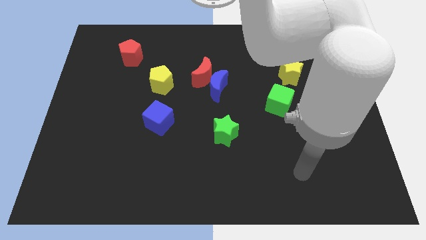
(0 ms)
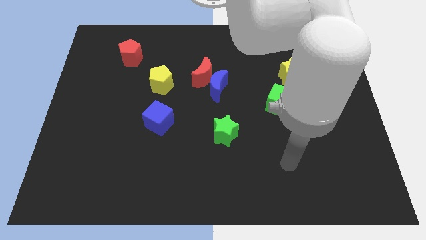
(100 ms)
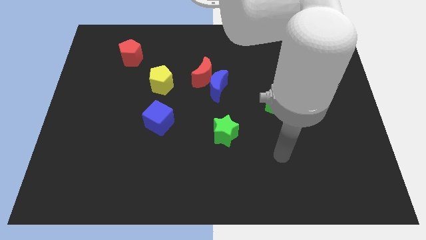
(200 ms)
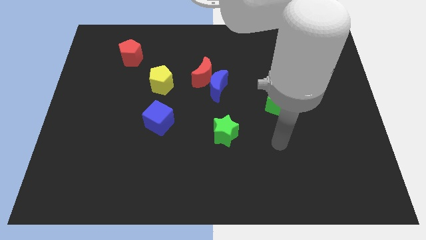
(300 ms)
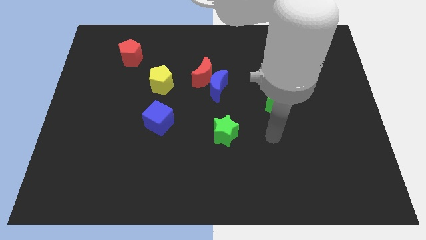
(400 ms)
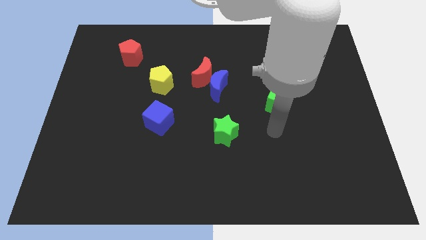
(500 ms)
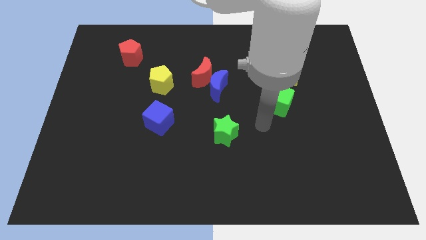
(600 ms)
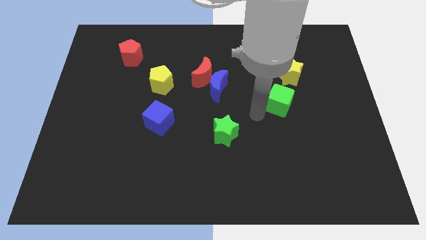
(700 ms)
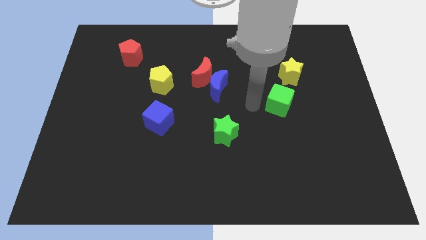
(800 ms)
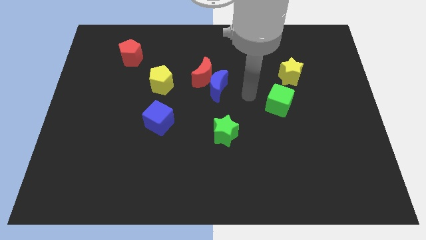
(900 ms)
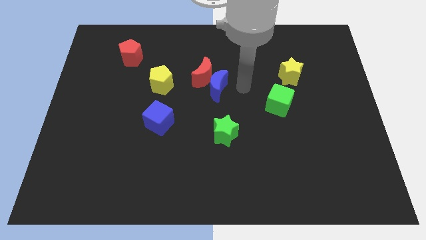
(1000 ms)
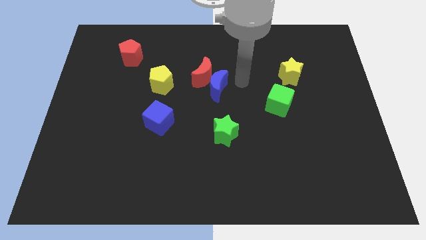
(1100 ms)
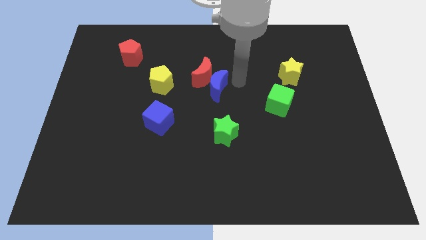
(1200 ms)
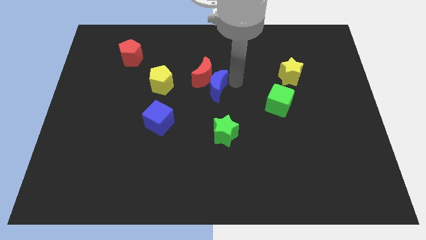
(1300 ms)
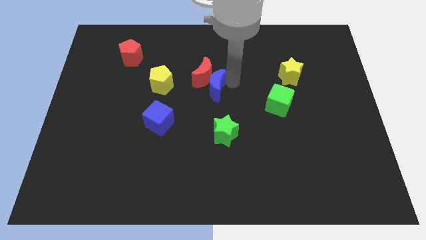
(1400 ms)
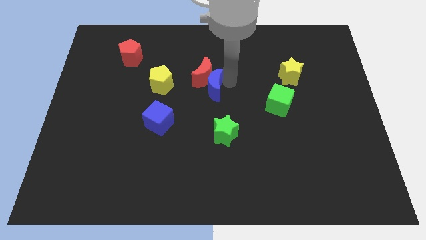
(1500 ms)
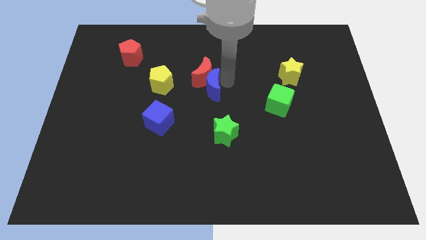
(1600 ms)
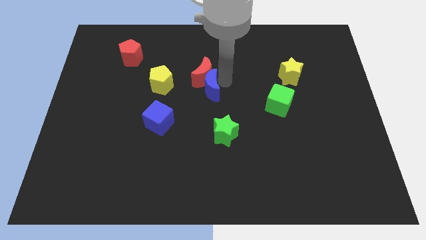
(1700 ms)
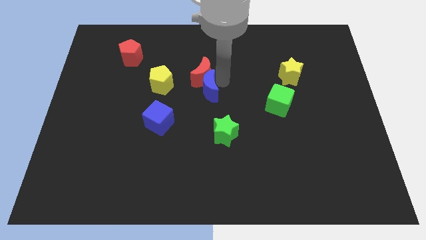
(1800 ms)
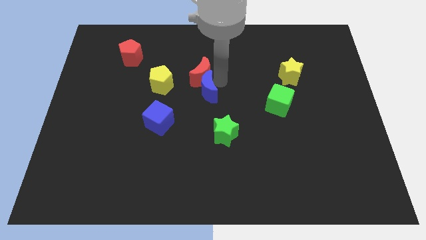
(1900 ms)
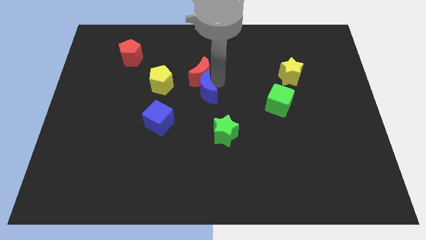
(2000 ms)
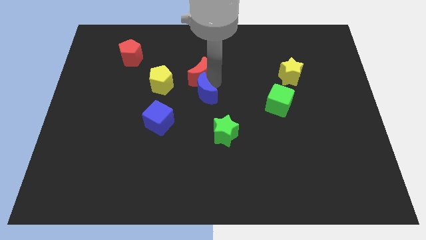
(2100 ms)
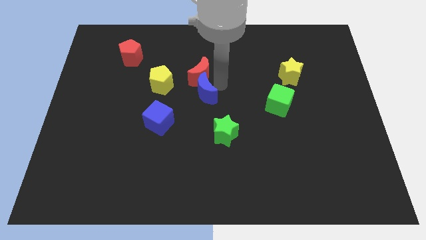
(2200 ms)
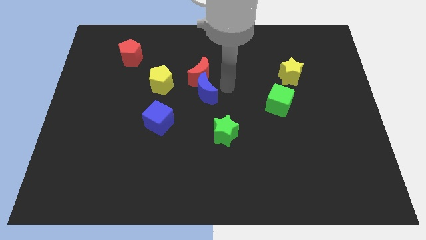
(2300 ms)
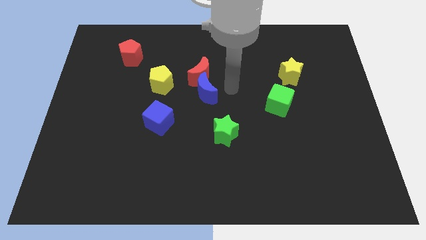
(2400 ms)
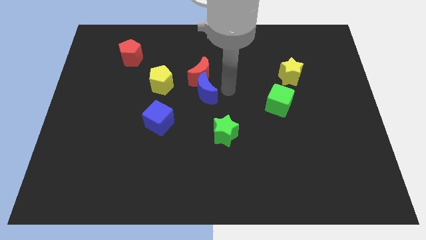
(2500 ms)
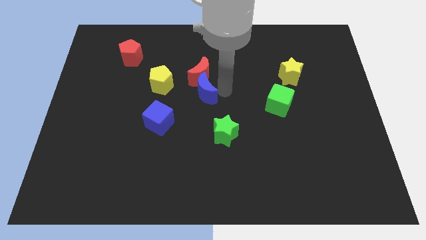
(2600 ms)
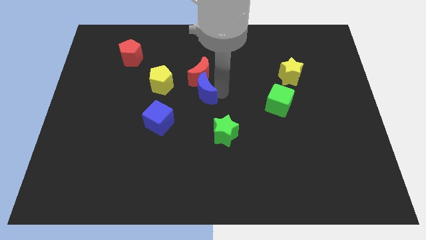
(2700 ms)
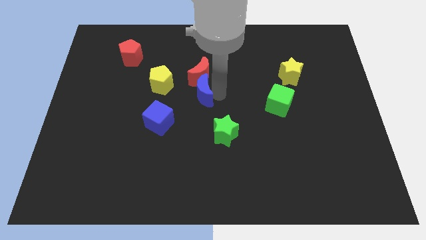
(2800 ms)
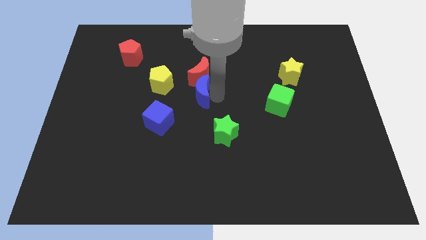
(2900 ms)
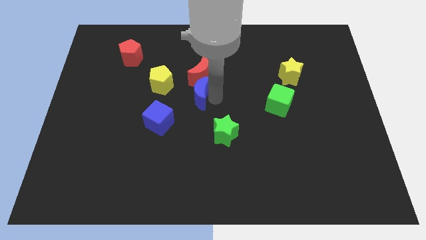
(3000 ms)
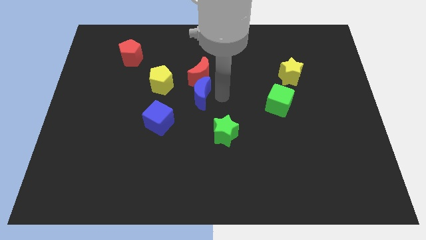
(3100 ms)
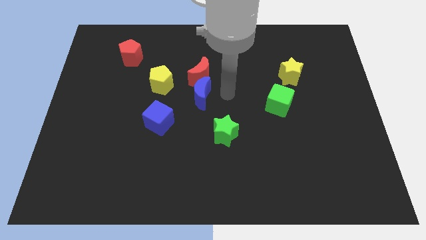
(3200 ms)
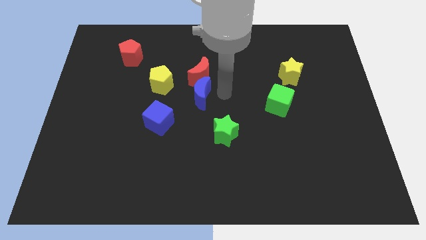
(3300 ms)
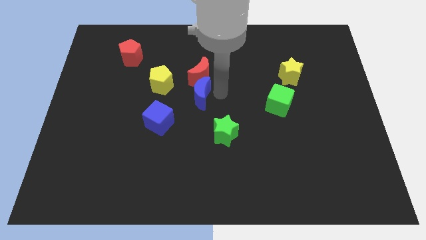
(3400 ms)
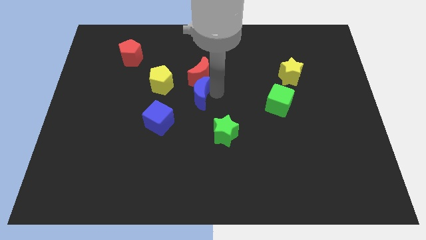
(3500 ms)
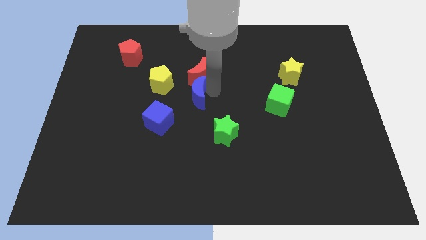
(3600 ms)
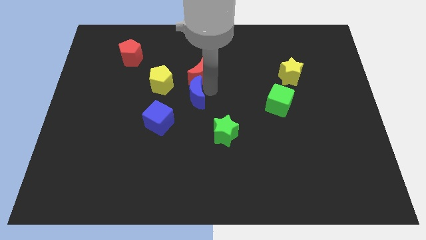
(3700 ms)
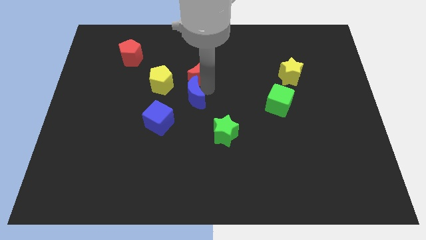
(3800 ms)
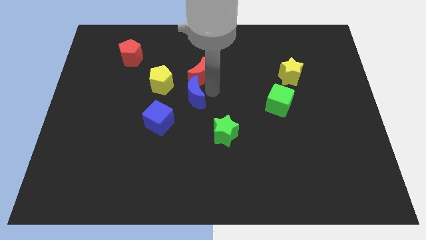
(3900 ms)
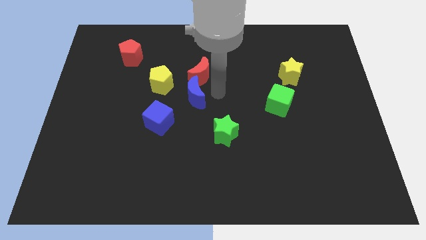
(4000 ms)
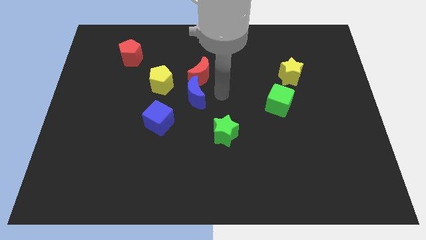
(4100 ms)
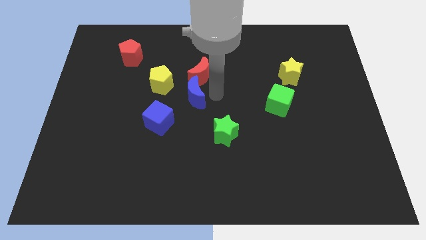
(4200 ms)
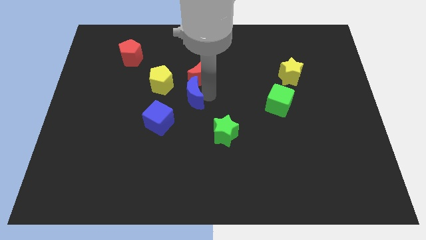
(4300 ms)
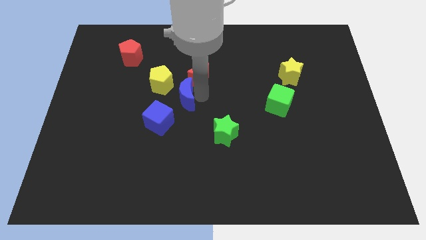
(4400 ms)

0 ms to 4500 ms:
slide the blue moon somewhat left

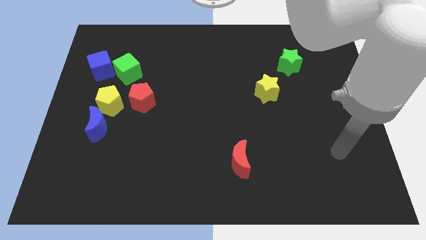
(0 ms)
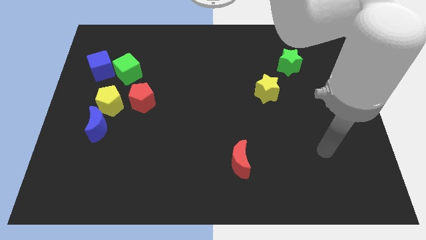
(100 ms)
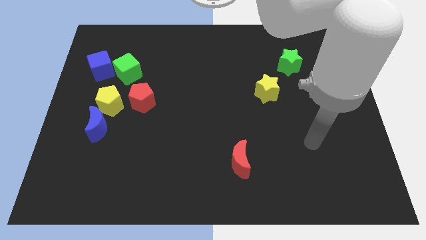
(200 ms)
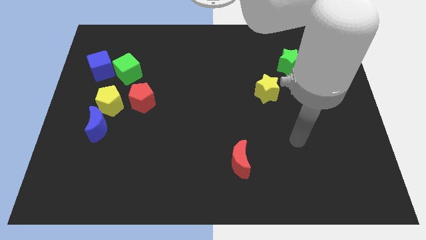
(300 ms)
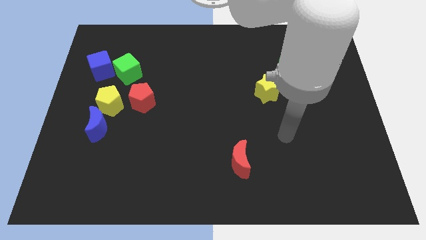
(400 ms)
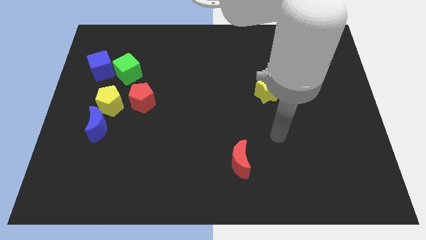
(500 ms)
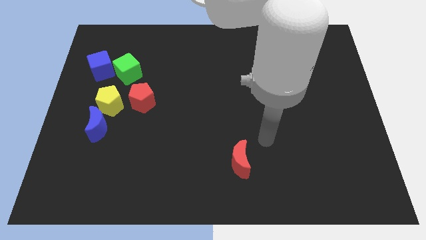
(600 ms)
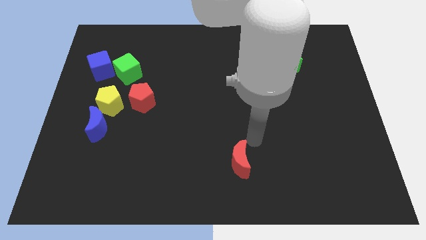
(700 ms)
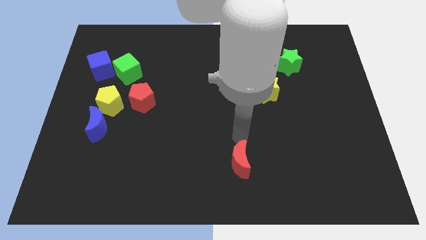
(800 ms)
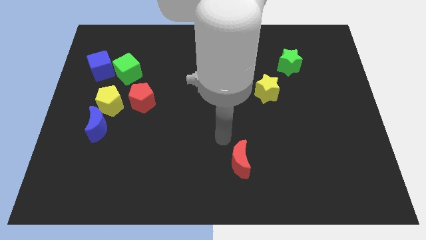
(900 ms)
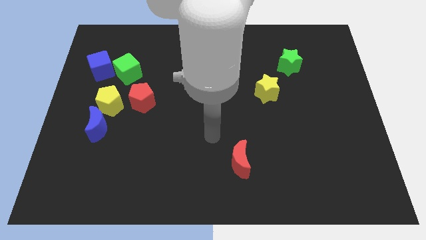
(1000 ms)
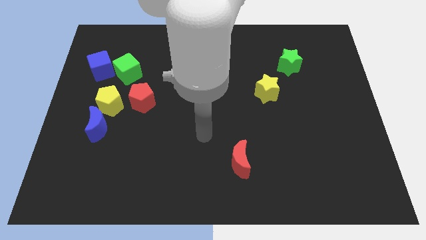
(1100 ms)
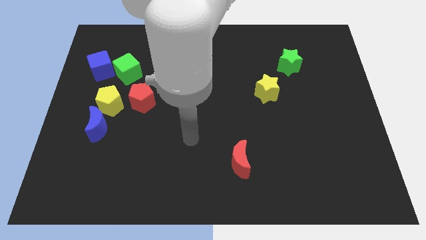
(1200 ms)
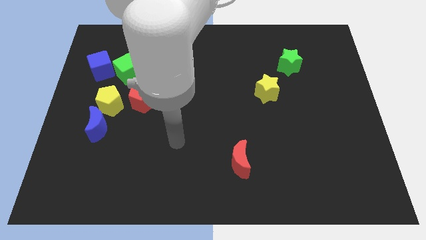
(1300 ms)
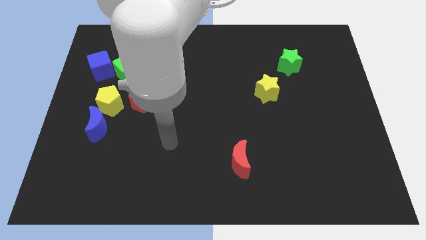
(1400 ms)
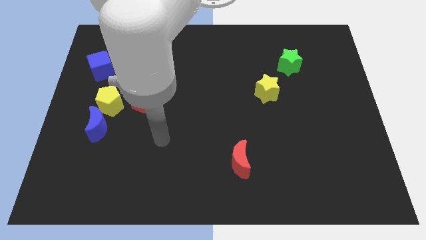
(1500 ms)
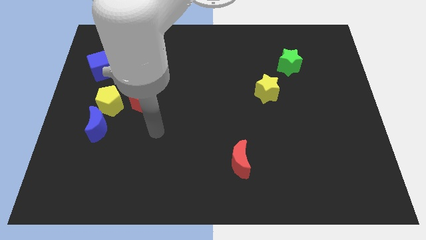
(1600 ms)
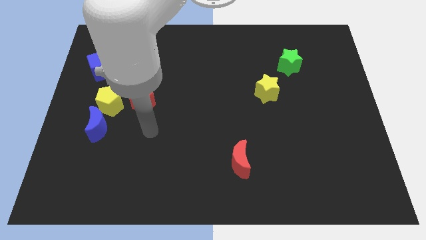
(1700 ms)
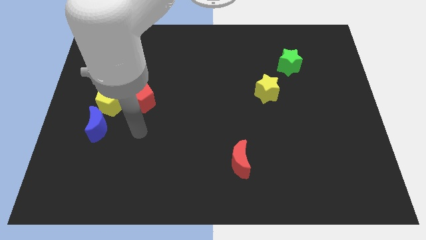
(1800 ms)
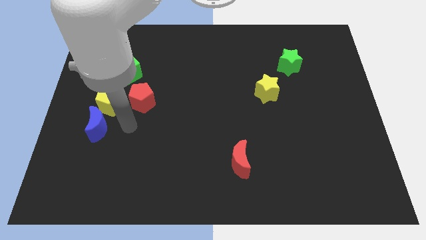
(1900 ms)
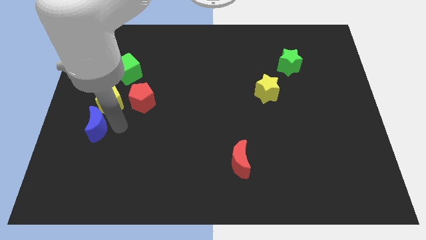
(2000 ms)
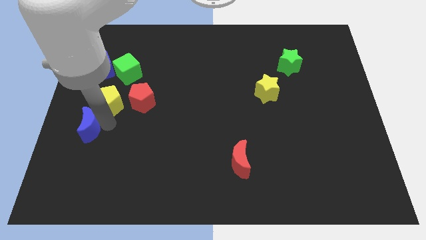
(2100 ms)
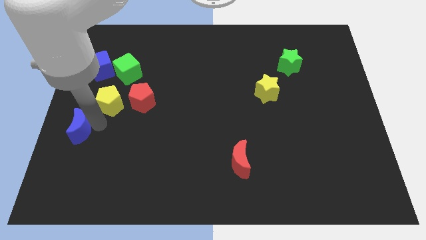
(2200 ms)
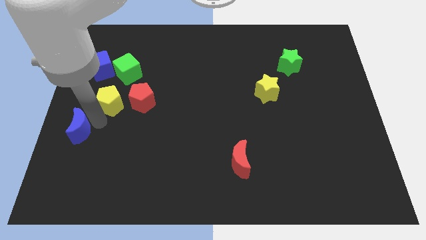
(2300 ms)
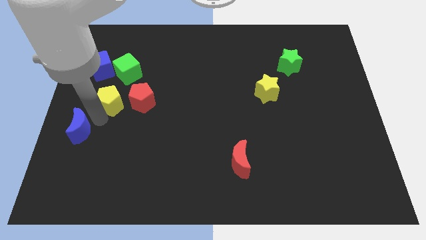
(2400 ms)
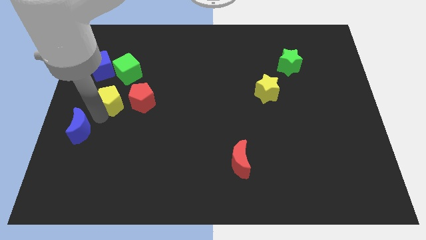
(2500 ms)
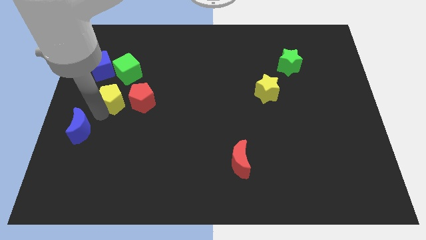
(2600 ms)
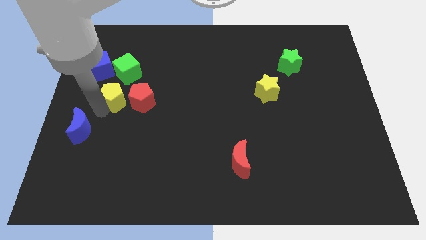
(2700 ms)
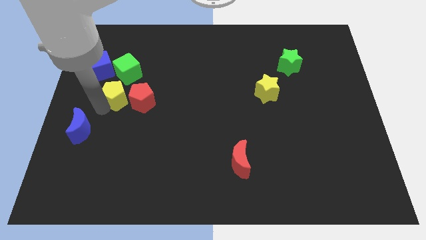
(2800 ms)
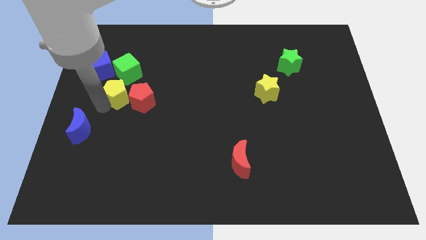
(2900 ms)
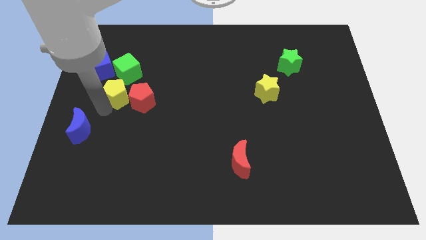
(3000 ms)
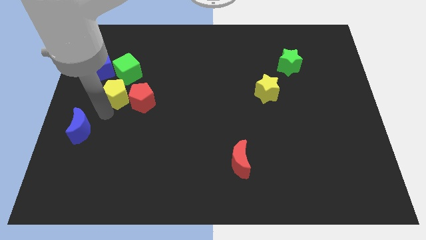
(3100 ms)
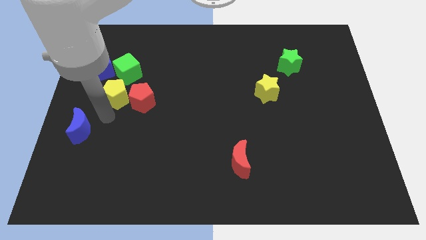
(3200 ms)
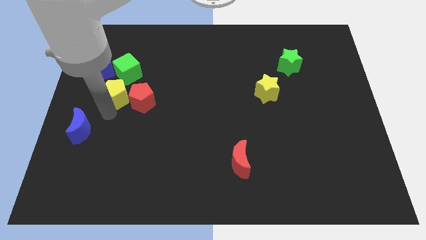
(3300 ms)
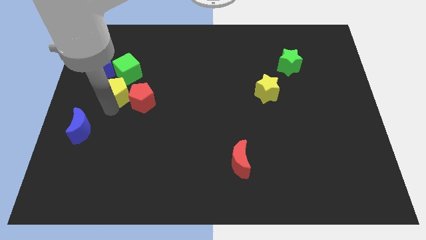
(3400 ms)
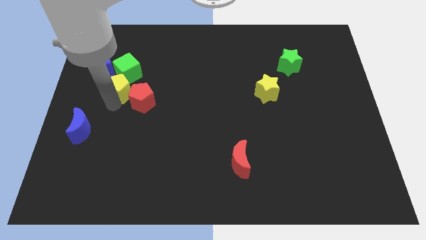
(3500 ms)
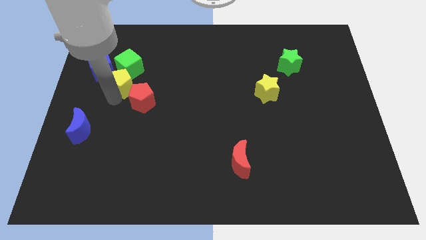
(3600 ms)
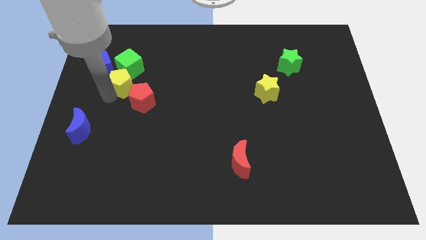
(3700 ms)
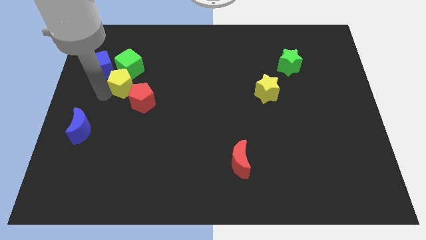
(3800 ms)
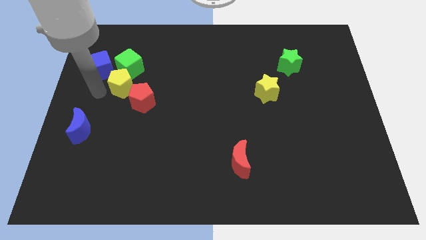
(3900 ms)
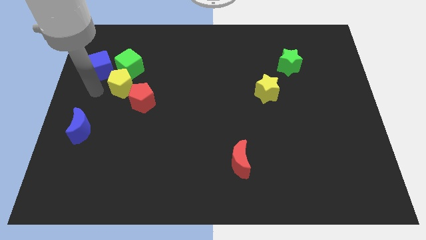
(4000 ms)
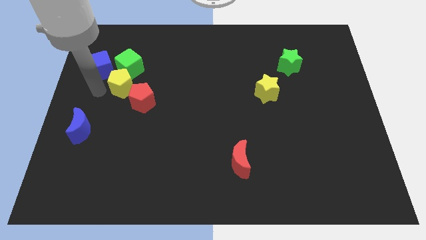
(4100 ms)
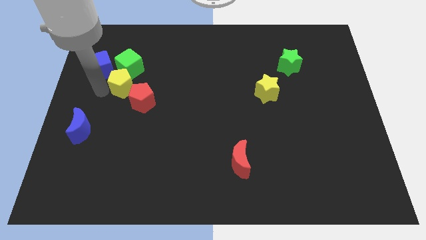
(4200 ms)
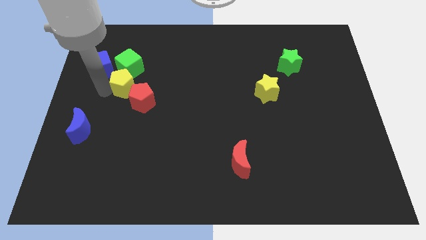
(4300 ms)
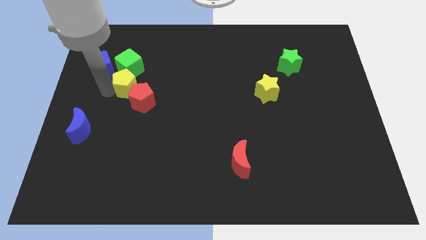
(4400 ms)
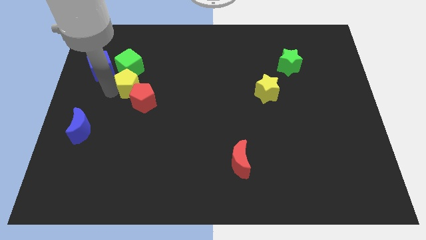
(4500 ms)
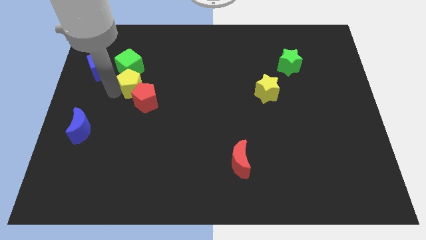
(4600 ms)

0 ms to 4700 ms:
move the yellow pentagon somewhat upwards and right diagonally
